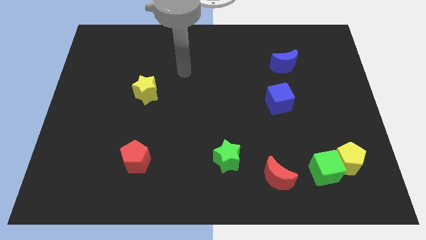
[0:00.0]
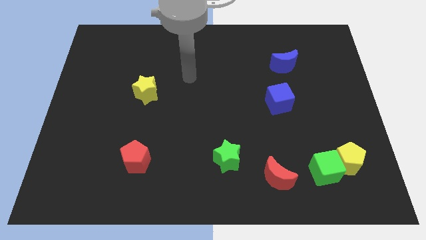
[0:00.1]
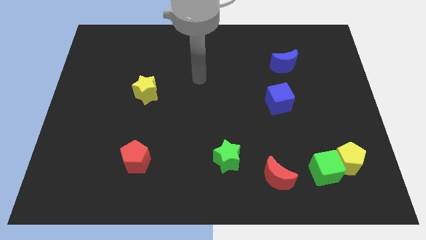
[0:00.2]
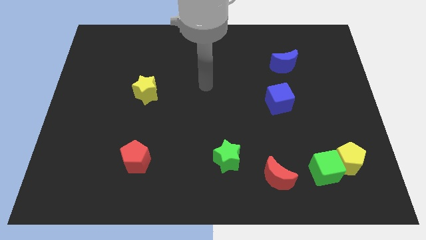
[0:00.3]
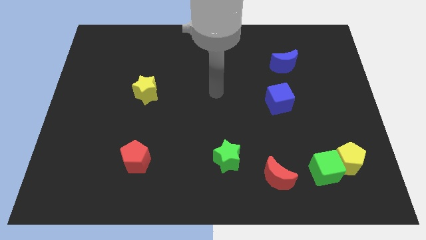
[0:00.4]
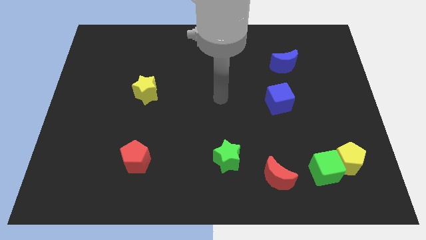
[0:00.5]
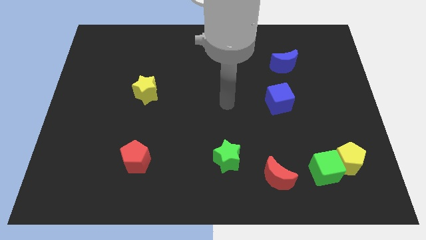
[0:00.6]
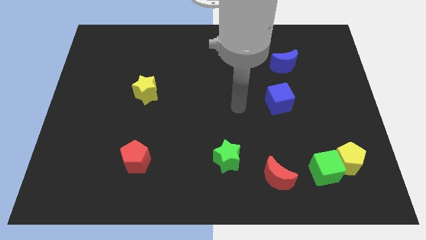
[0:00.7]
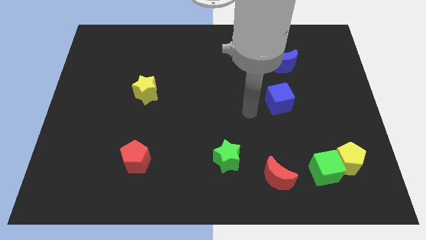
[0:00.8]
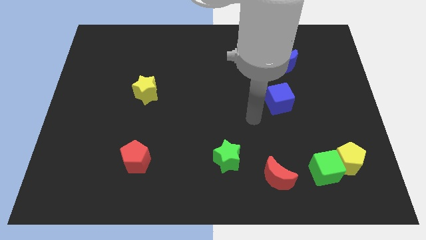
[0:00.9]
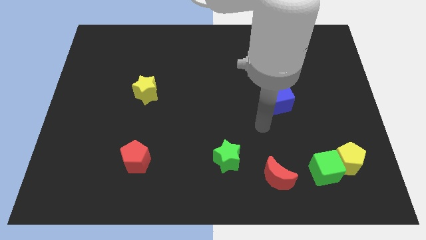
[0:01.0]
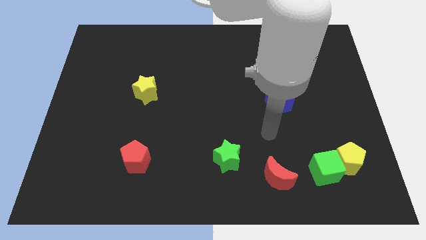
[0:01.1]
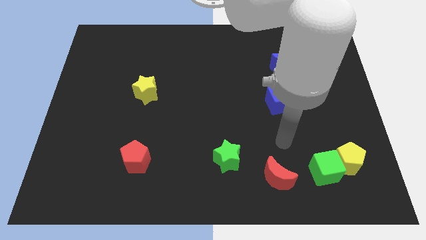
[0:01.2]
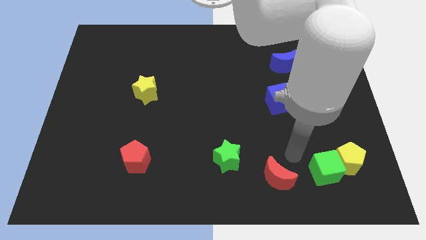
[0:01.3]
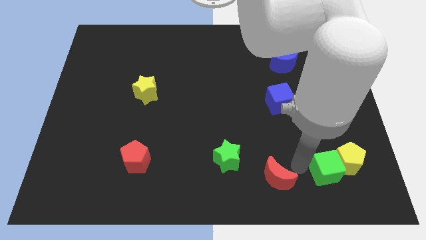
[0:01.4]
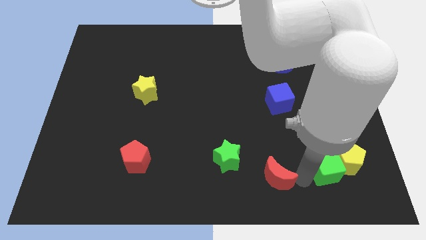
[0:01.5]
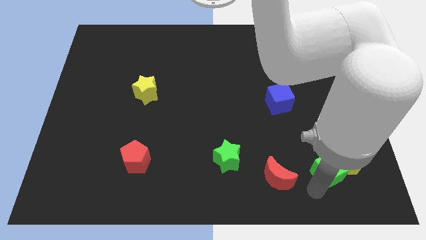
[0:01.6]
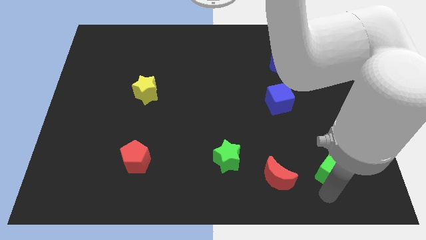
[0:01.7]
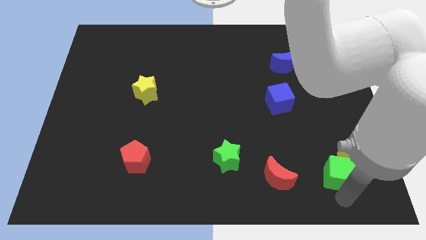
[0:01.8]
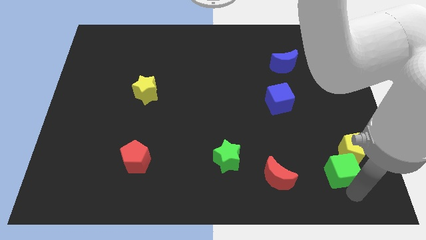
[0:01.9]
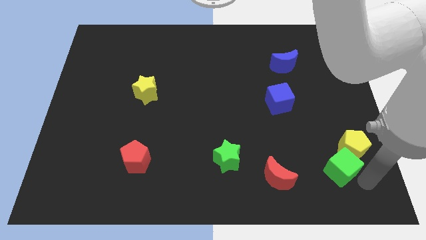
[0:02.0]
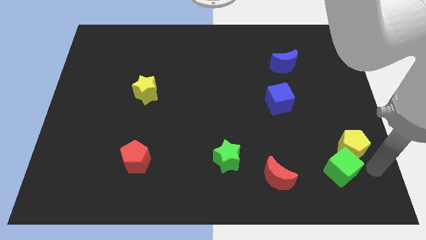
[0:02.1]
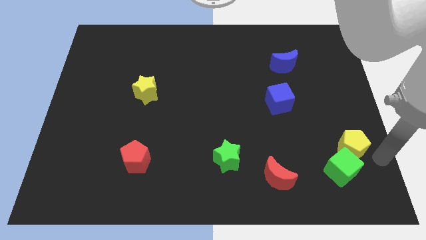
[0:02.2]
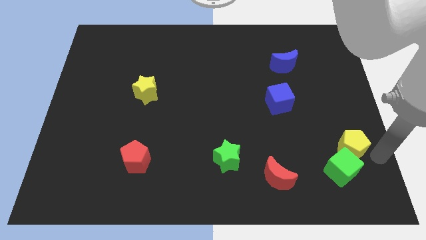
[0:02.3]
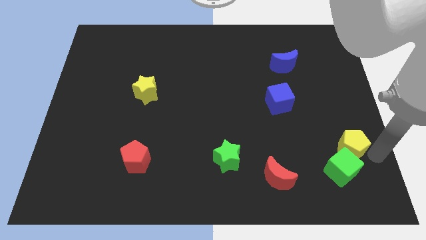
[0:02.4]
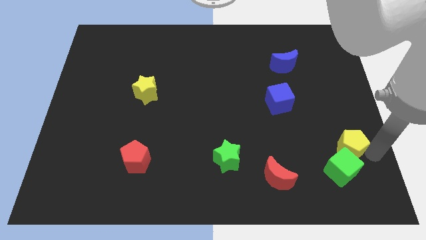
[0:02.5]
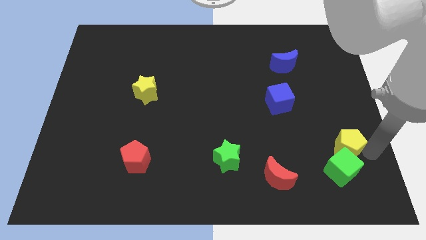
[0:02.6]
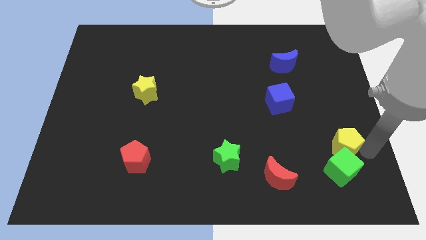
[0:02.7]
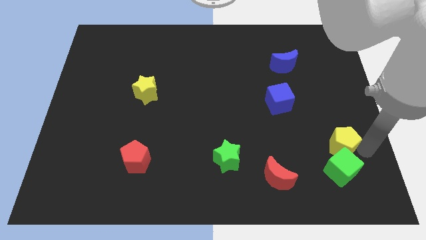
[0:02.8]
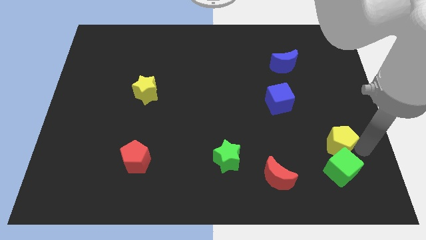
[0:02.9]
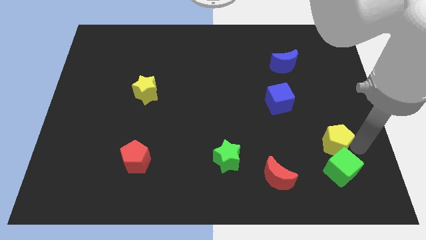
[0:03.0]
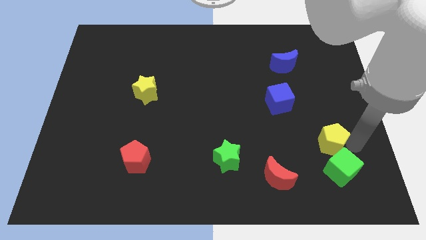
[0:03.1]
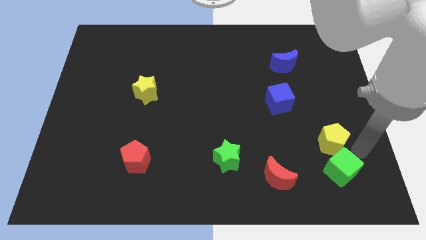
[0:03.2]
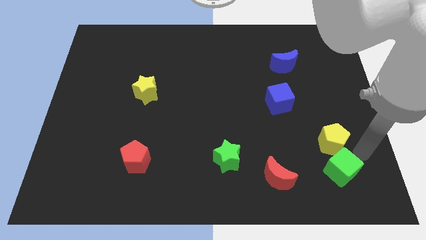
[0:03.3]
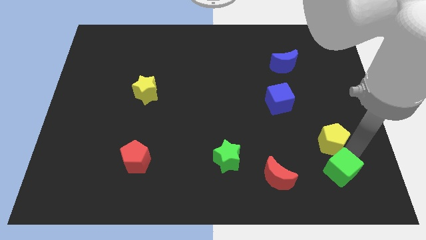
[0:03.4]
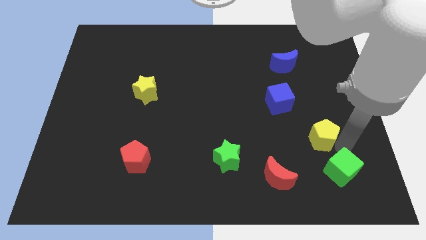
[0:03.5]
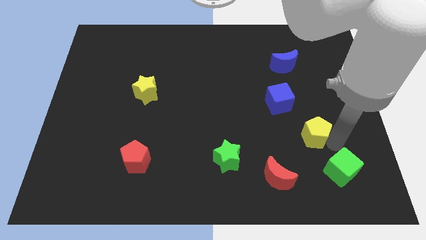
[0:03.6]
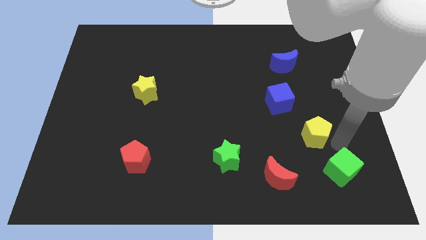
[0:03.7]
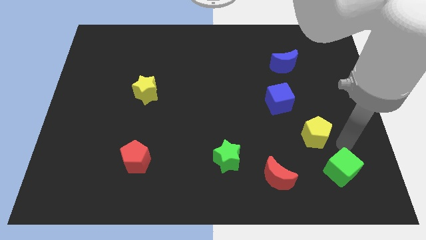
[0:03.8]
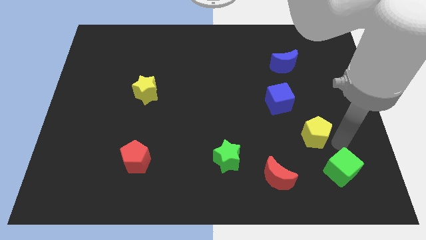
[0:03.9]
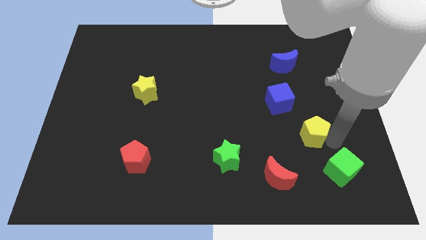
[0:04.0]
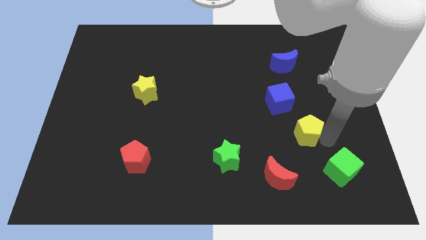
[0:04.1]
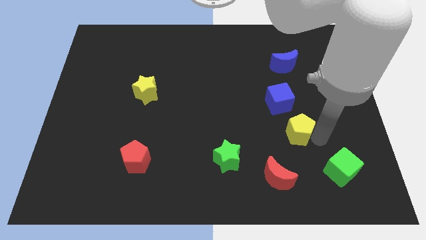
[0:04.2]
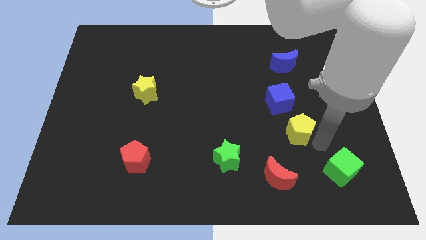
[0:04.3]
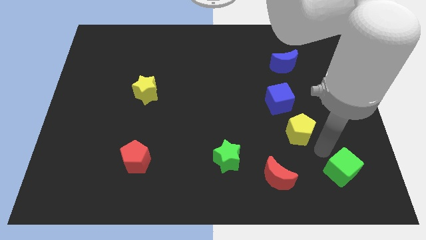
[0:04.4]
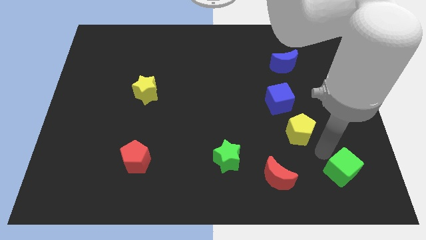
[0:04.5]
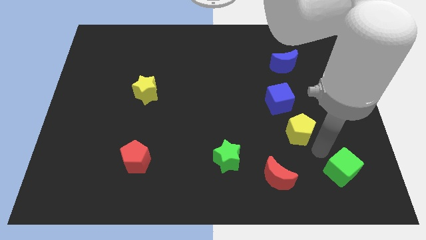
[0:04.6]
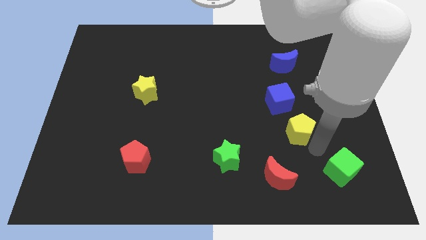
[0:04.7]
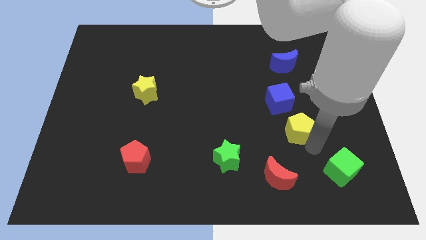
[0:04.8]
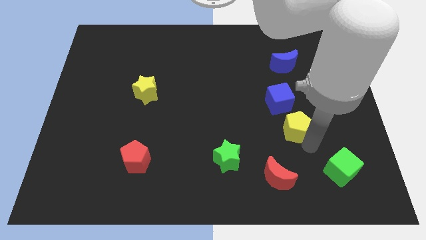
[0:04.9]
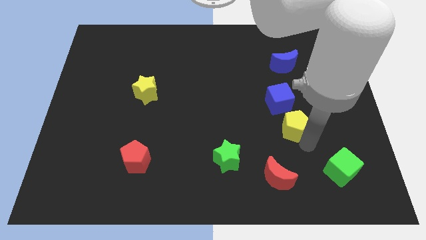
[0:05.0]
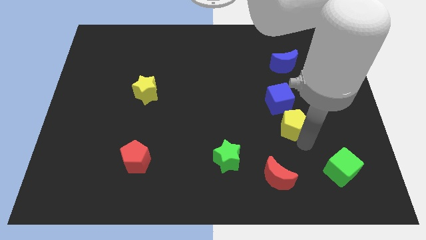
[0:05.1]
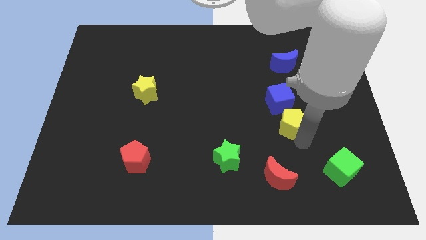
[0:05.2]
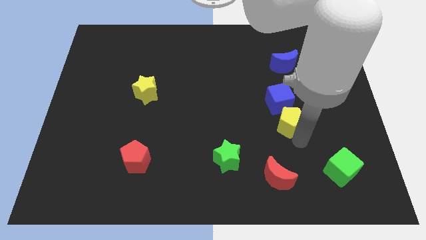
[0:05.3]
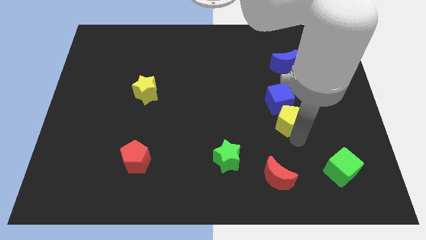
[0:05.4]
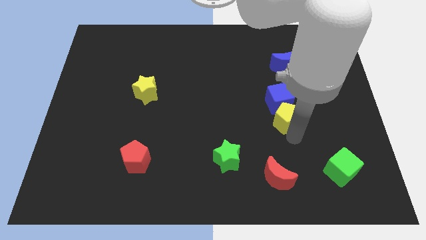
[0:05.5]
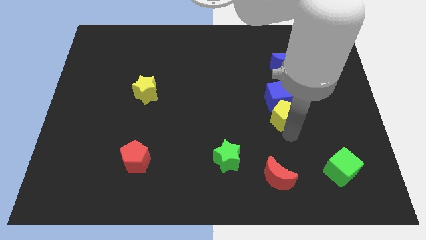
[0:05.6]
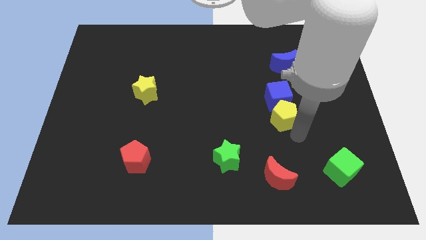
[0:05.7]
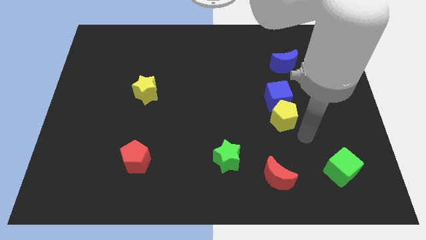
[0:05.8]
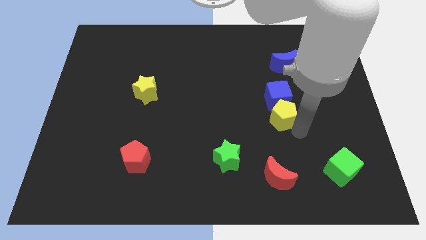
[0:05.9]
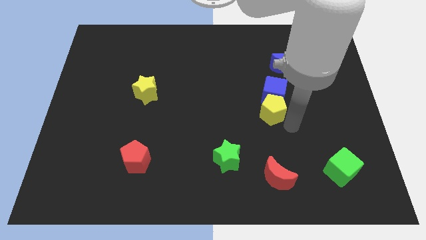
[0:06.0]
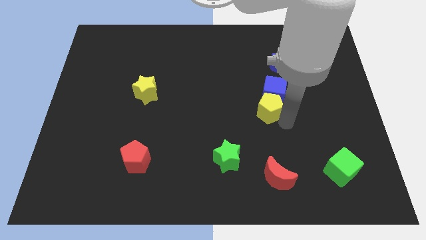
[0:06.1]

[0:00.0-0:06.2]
slide the yellow pentagon up and left diagonally

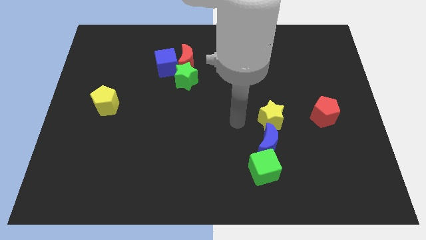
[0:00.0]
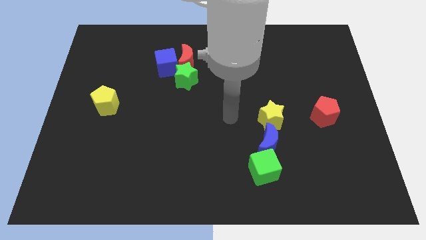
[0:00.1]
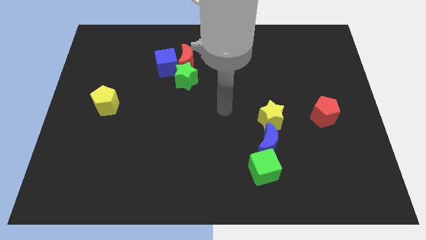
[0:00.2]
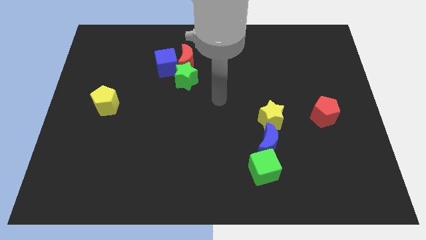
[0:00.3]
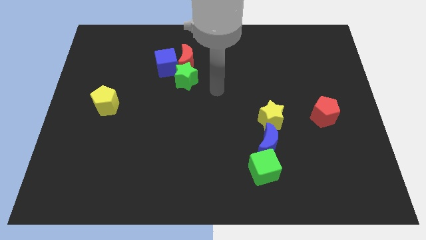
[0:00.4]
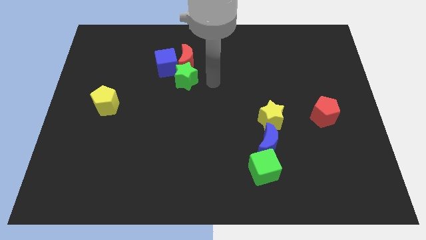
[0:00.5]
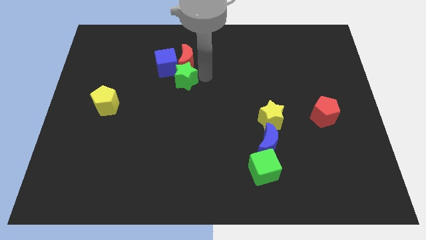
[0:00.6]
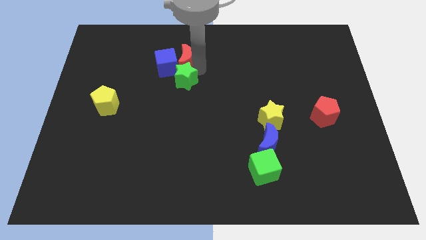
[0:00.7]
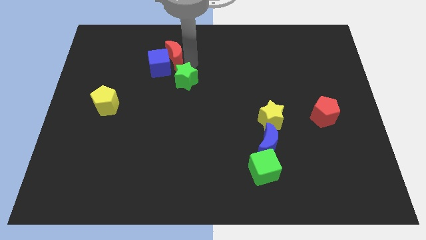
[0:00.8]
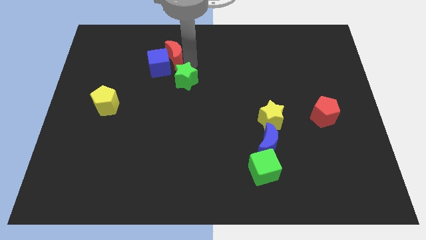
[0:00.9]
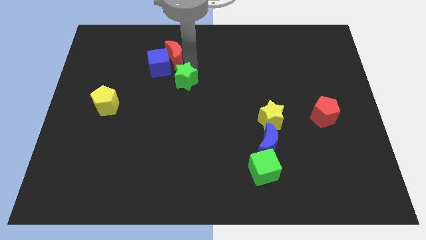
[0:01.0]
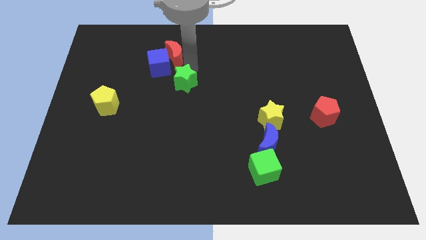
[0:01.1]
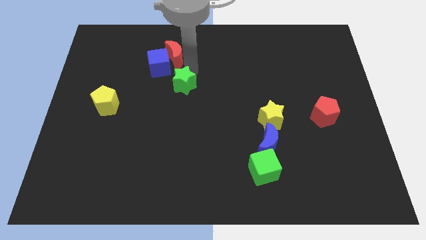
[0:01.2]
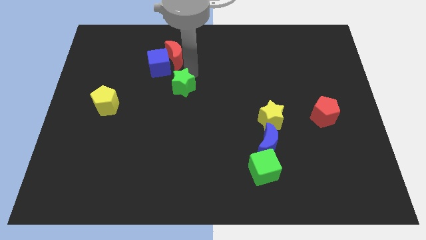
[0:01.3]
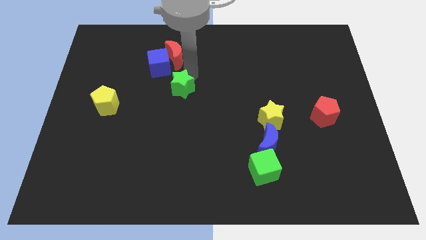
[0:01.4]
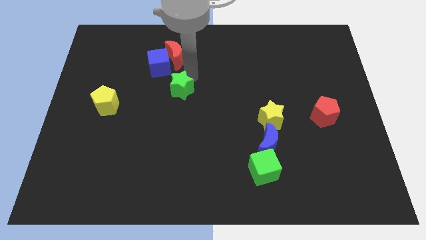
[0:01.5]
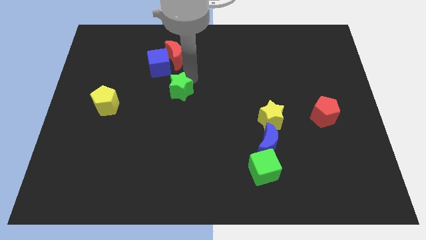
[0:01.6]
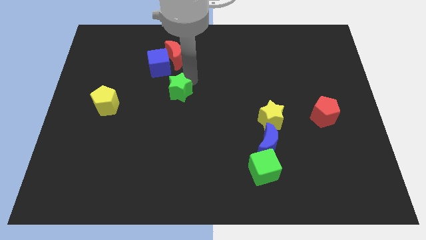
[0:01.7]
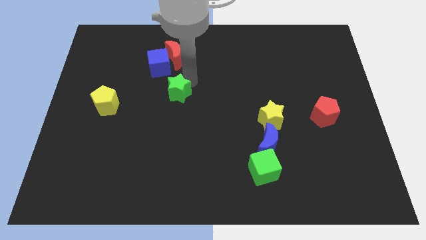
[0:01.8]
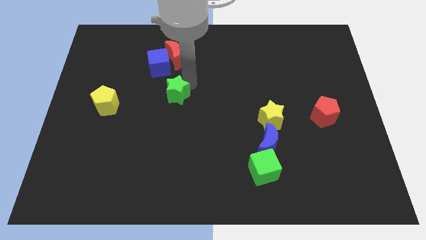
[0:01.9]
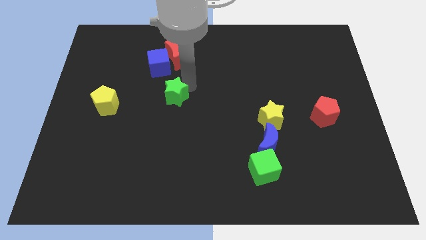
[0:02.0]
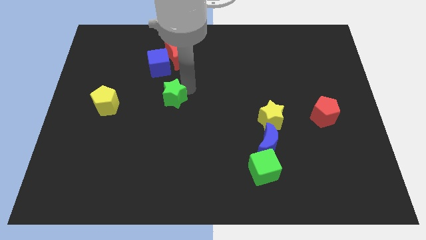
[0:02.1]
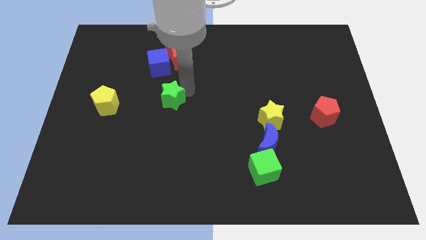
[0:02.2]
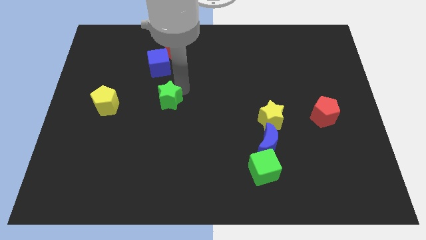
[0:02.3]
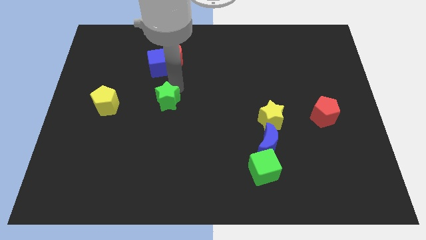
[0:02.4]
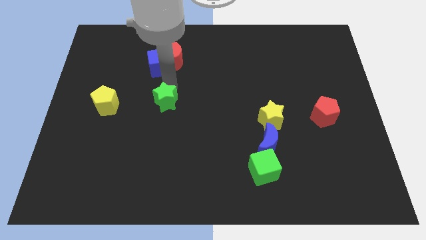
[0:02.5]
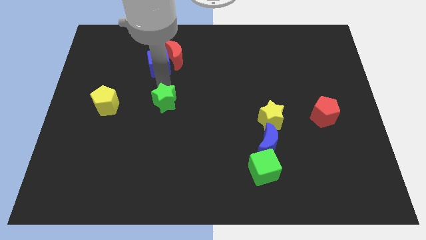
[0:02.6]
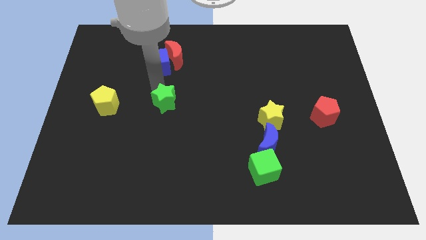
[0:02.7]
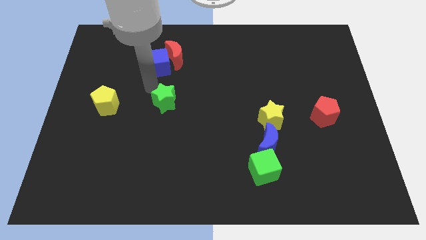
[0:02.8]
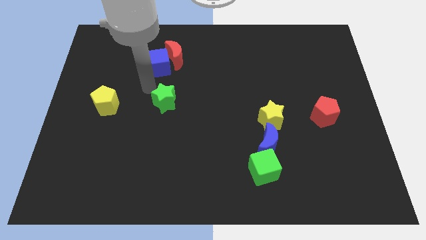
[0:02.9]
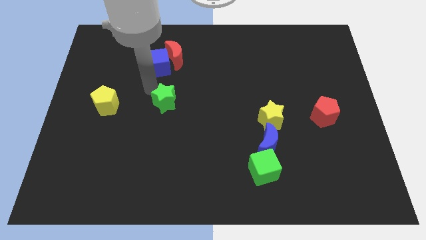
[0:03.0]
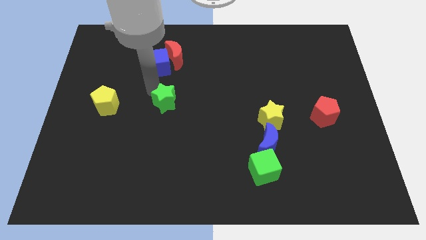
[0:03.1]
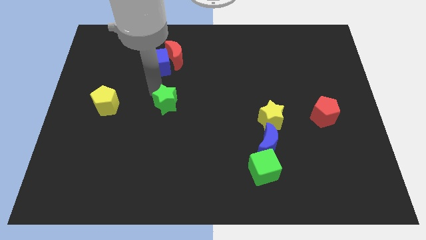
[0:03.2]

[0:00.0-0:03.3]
slightly move the green star down
